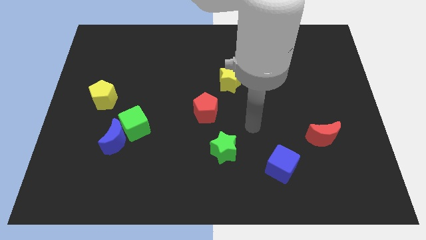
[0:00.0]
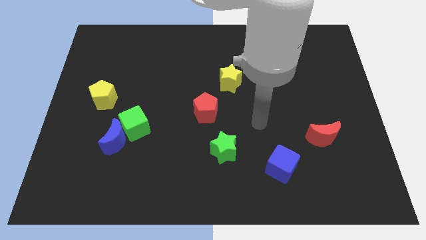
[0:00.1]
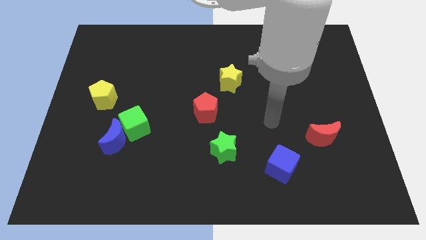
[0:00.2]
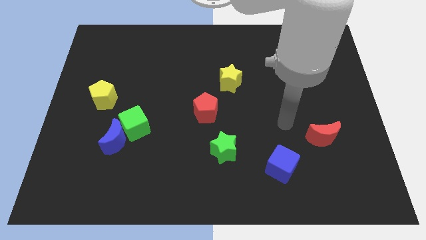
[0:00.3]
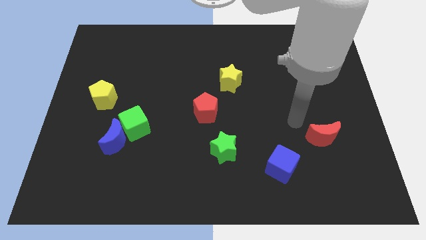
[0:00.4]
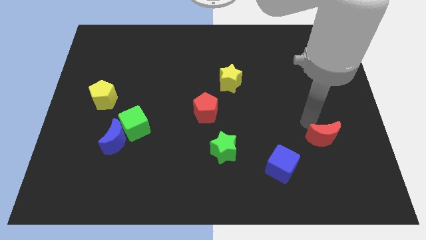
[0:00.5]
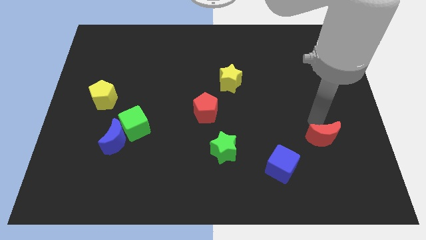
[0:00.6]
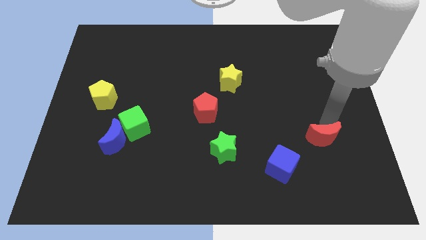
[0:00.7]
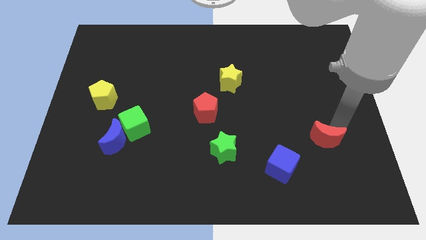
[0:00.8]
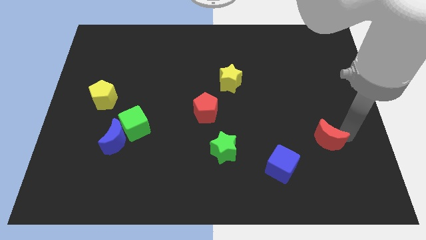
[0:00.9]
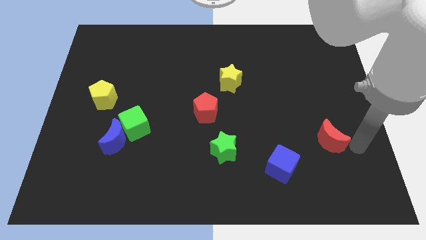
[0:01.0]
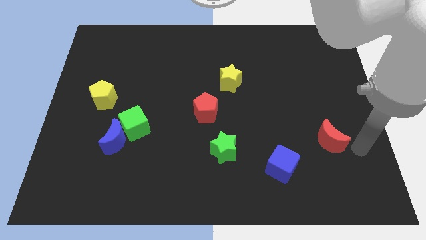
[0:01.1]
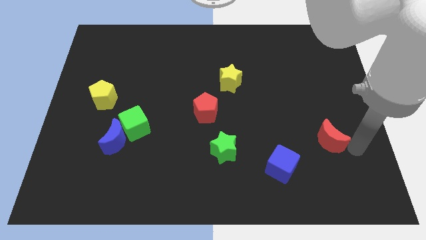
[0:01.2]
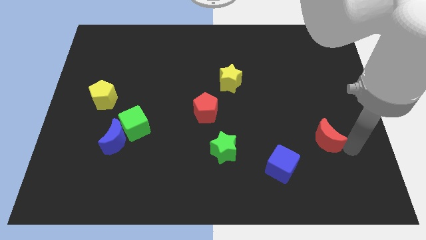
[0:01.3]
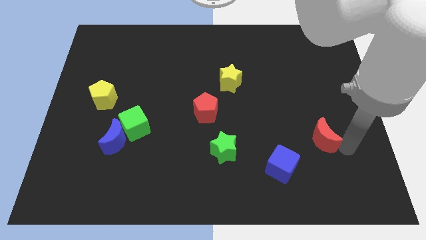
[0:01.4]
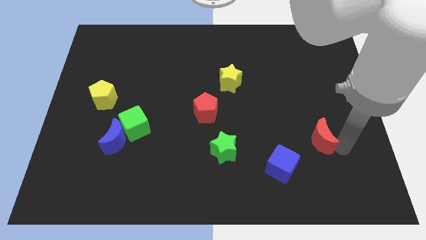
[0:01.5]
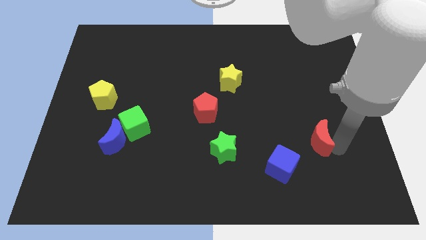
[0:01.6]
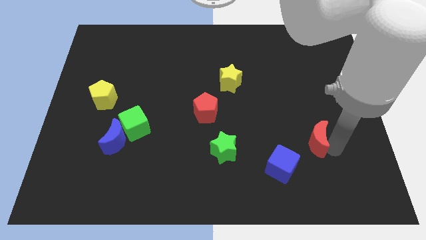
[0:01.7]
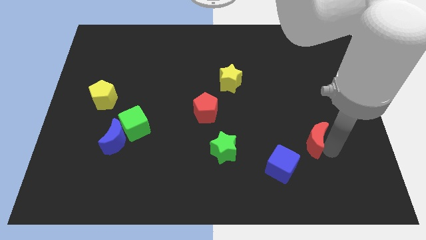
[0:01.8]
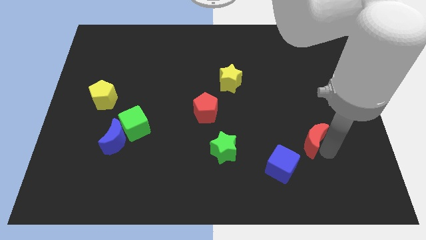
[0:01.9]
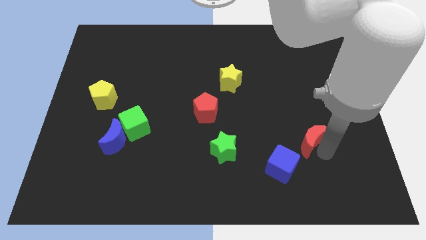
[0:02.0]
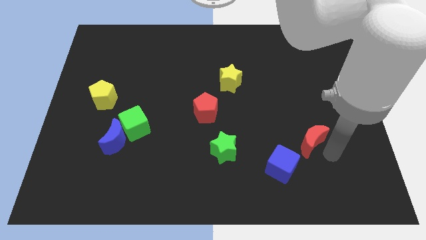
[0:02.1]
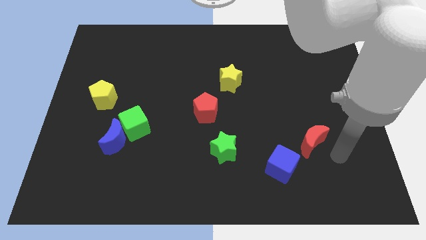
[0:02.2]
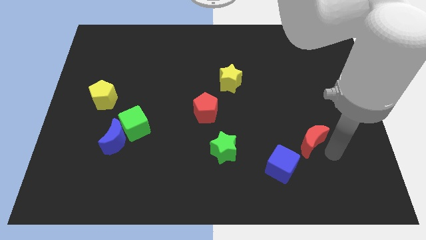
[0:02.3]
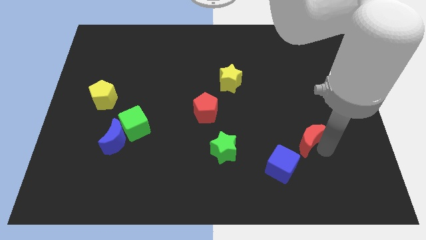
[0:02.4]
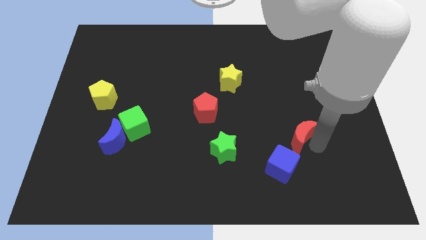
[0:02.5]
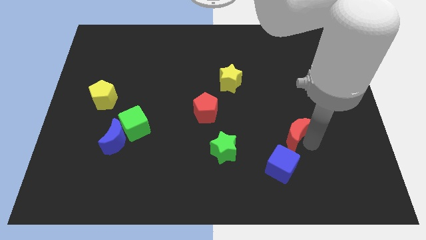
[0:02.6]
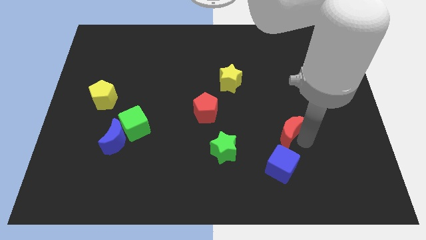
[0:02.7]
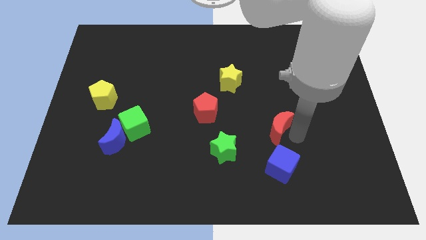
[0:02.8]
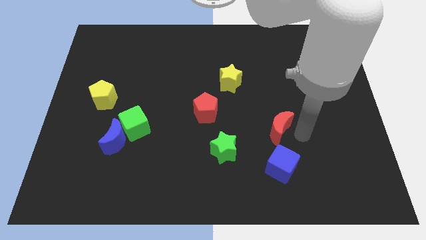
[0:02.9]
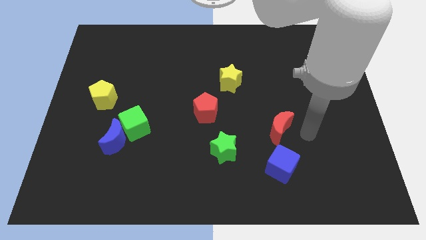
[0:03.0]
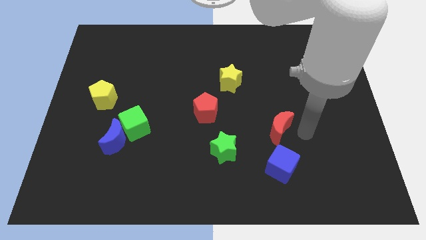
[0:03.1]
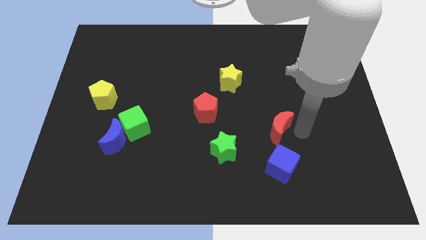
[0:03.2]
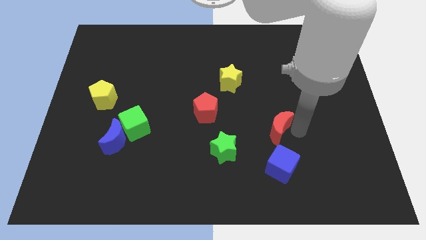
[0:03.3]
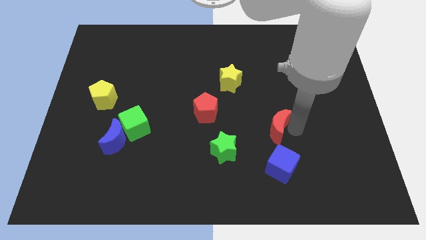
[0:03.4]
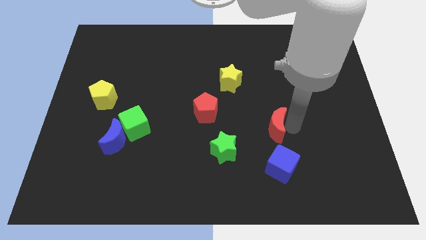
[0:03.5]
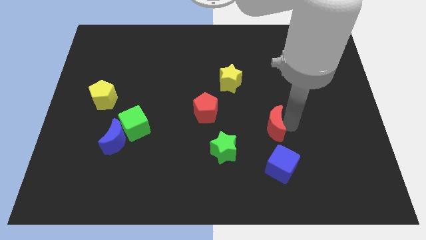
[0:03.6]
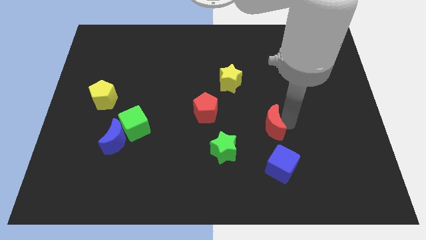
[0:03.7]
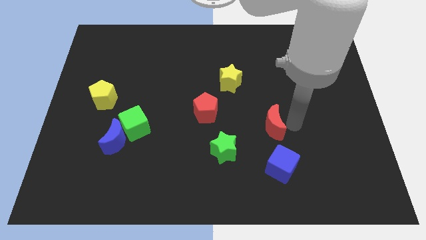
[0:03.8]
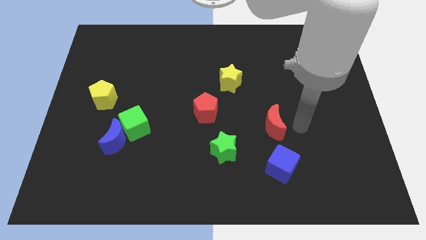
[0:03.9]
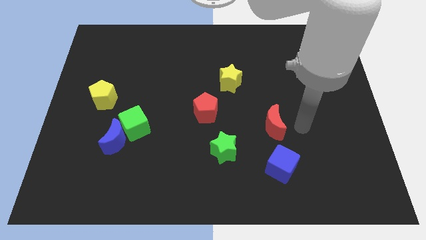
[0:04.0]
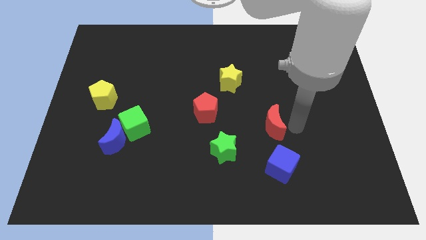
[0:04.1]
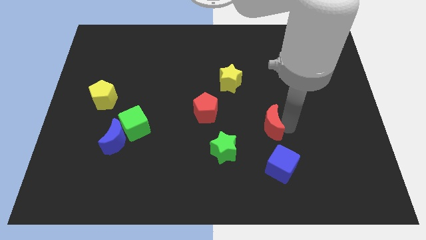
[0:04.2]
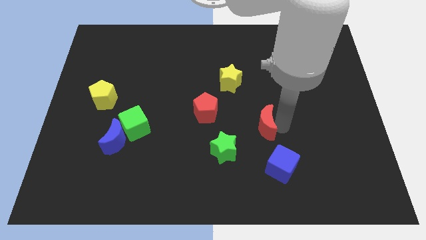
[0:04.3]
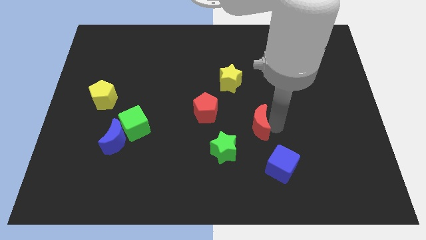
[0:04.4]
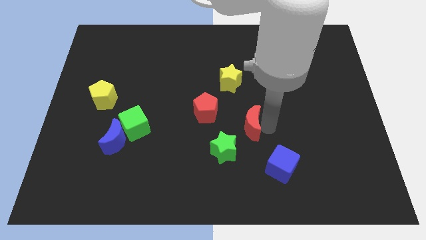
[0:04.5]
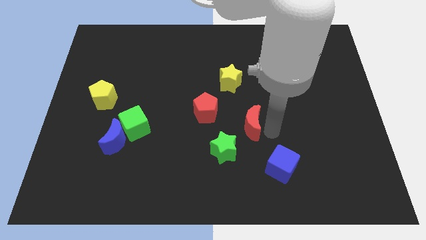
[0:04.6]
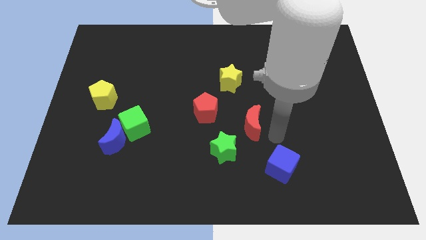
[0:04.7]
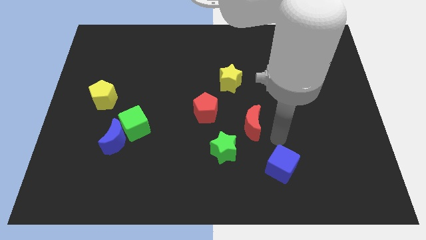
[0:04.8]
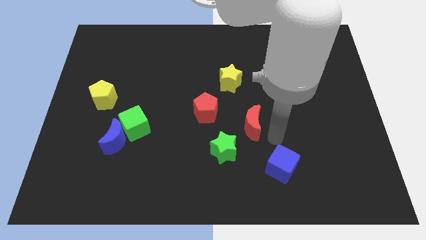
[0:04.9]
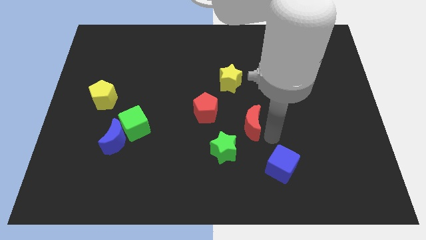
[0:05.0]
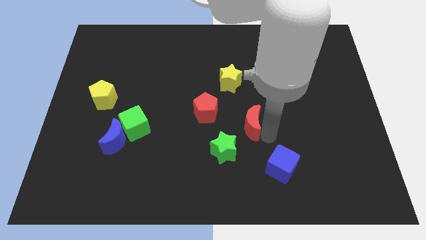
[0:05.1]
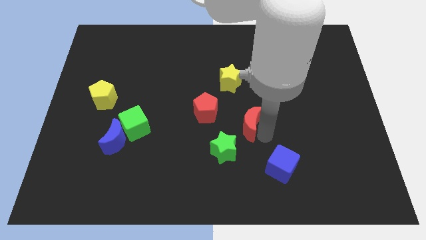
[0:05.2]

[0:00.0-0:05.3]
put the red moon to the bottom of the yellow star

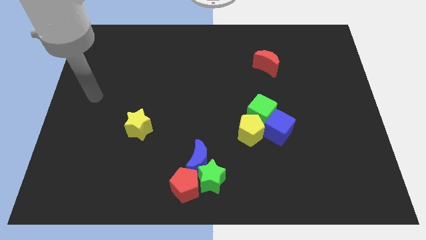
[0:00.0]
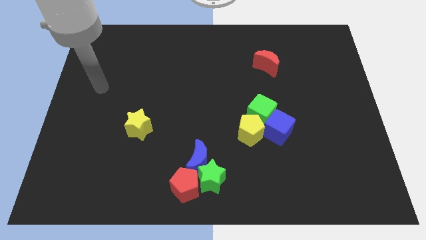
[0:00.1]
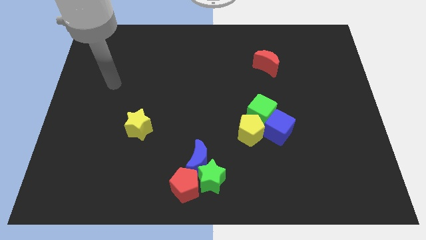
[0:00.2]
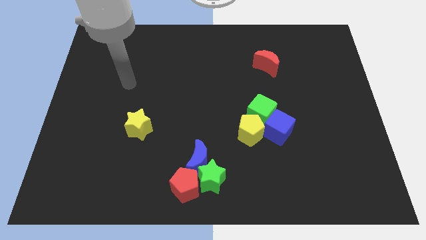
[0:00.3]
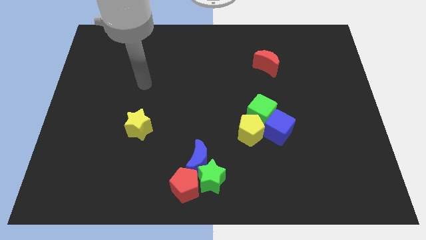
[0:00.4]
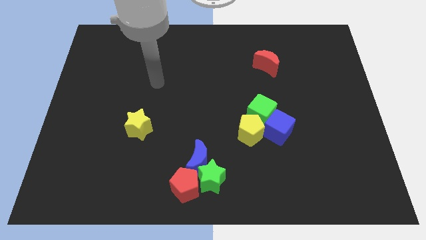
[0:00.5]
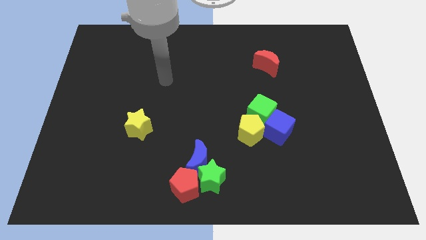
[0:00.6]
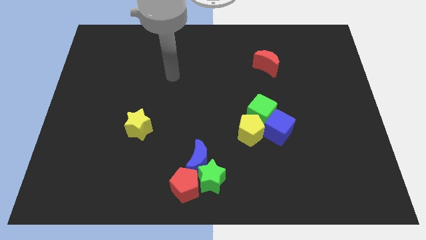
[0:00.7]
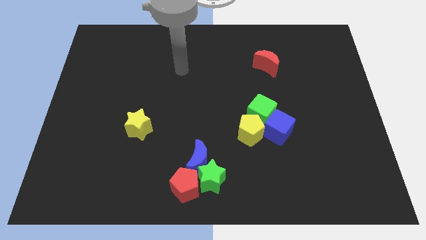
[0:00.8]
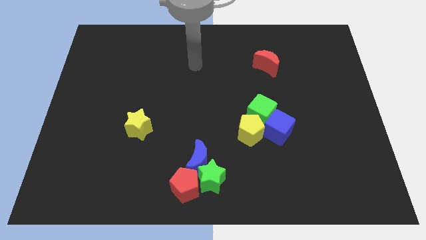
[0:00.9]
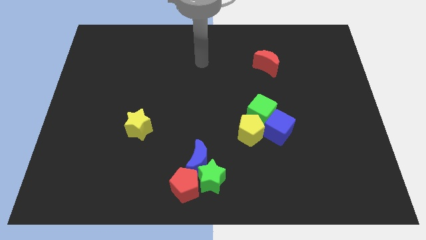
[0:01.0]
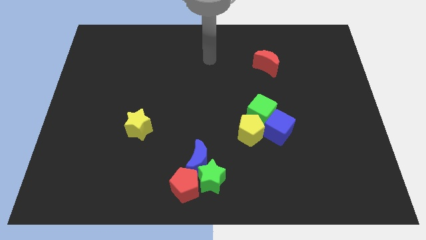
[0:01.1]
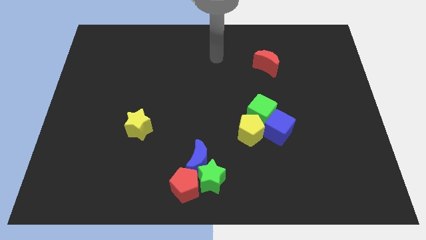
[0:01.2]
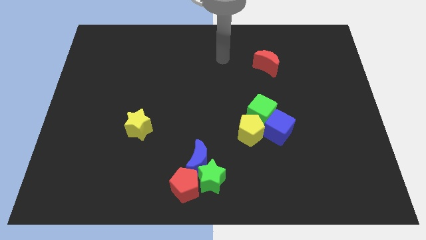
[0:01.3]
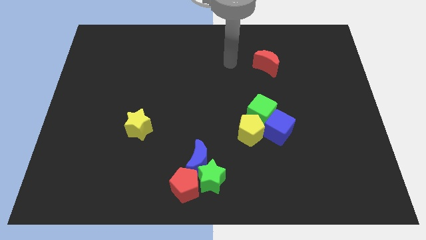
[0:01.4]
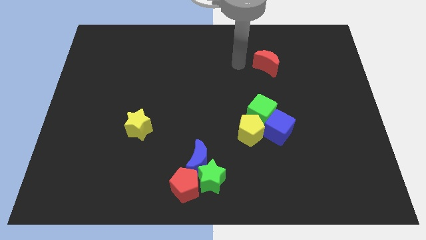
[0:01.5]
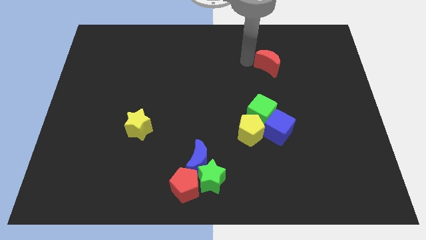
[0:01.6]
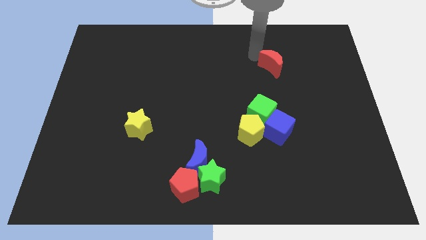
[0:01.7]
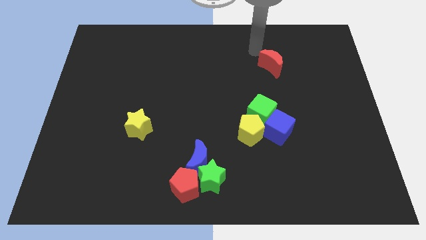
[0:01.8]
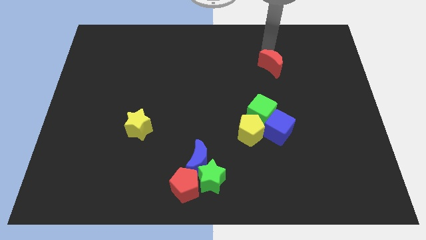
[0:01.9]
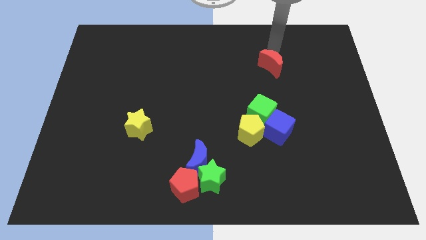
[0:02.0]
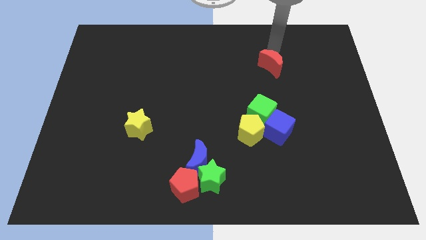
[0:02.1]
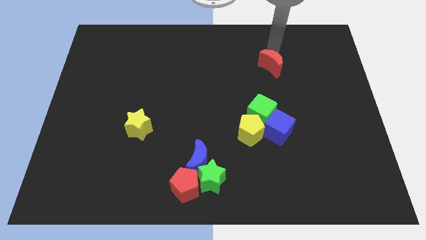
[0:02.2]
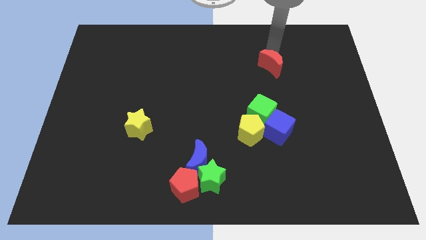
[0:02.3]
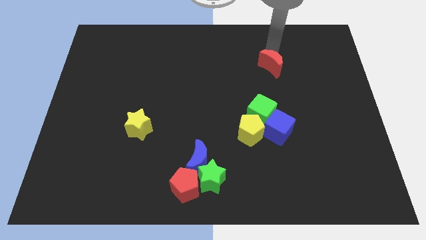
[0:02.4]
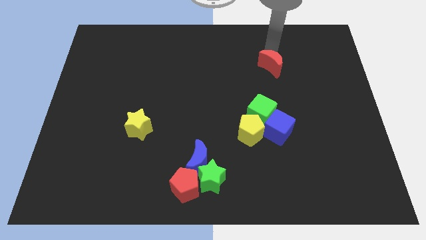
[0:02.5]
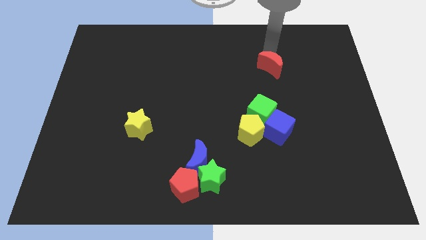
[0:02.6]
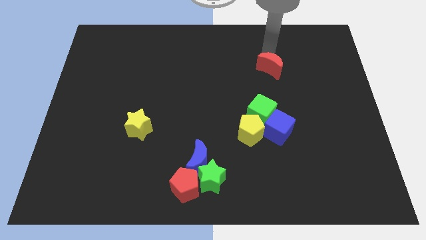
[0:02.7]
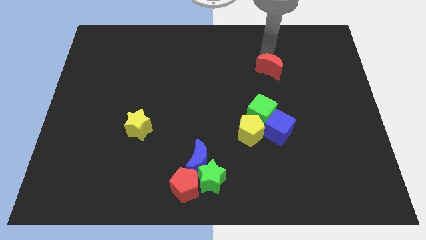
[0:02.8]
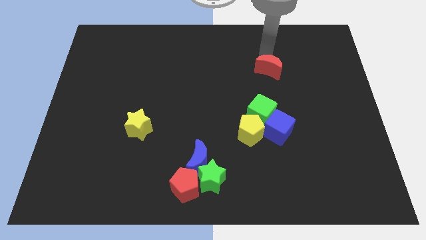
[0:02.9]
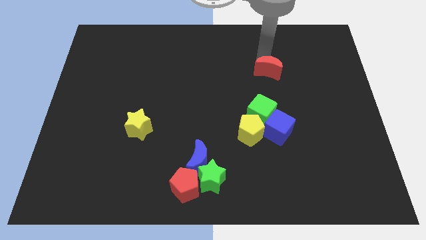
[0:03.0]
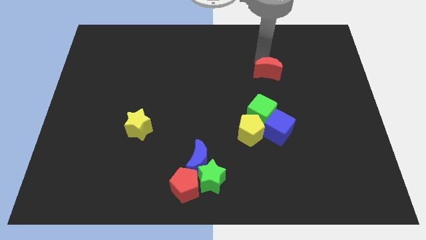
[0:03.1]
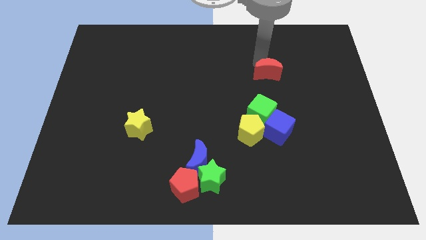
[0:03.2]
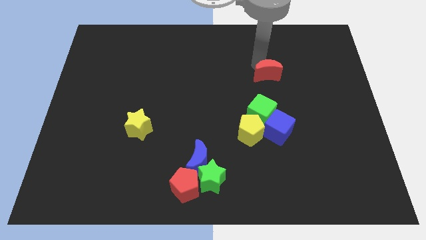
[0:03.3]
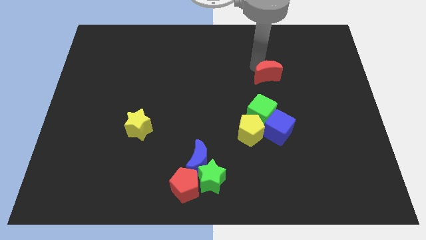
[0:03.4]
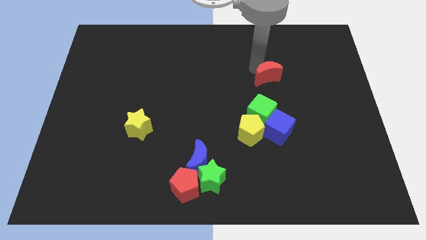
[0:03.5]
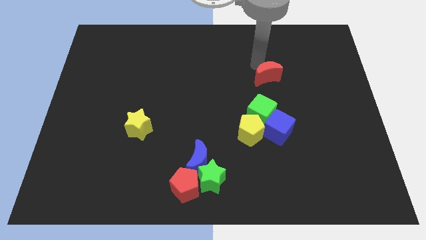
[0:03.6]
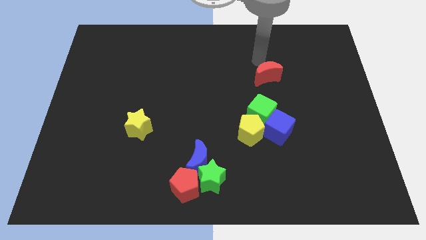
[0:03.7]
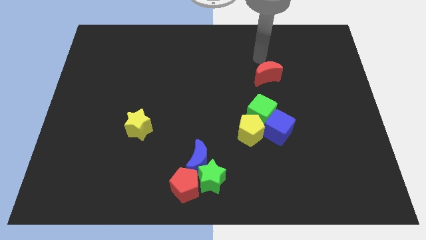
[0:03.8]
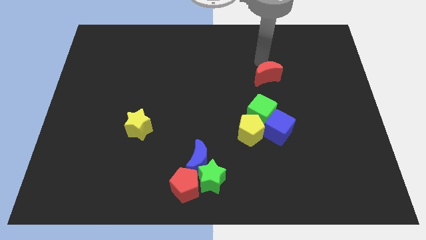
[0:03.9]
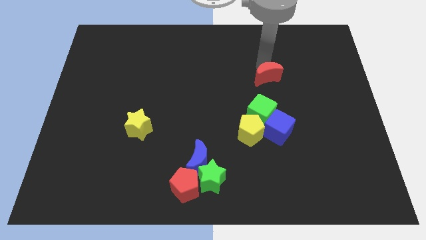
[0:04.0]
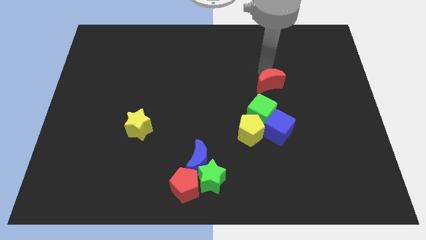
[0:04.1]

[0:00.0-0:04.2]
push the red moon above the blue cube
